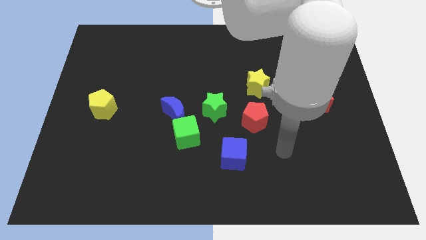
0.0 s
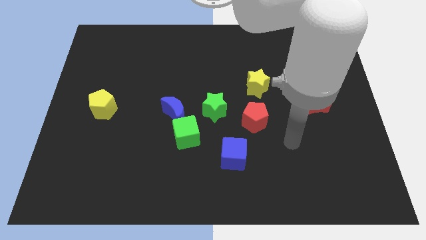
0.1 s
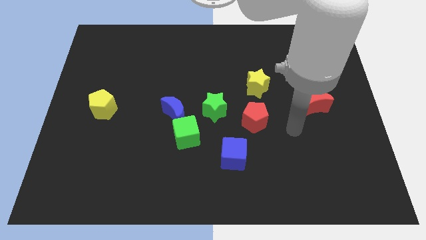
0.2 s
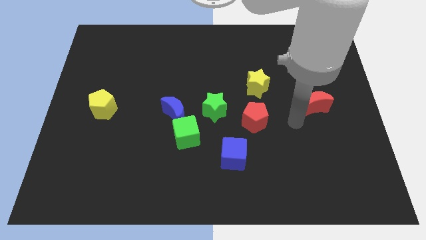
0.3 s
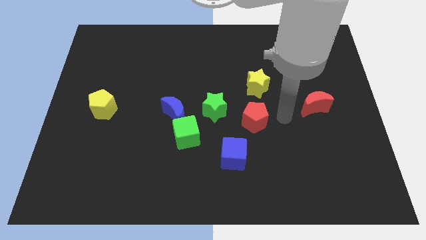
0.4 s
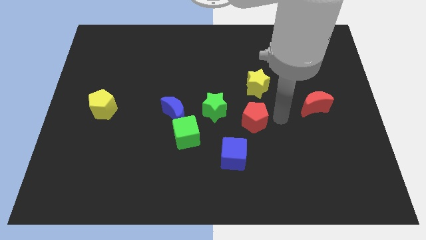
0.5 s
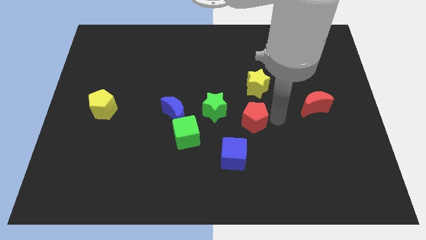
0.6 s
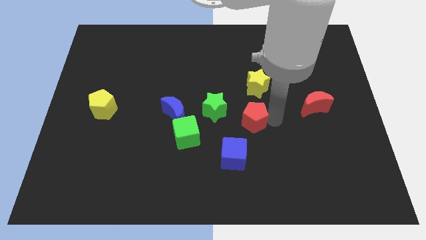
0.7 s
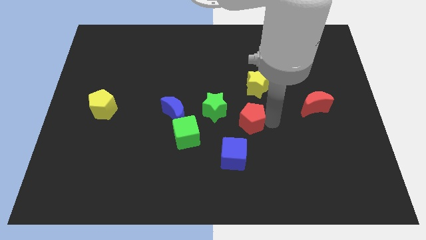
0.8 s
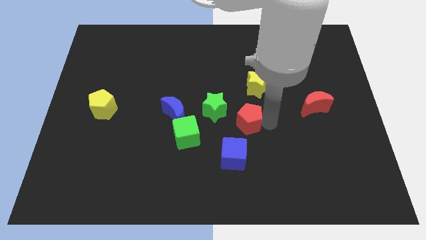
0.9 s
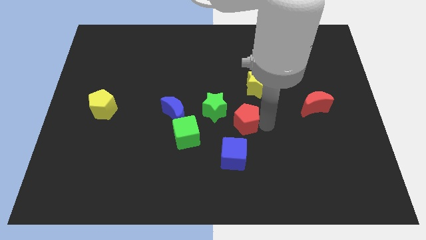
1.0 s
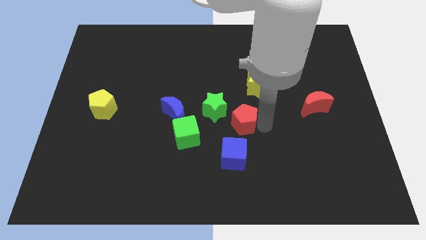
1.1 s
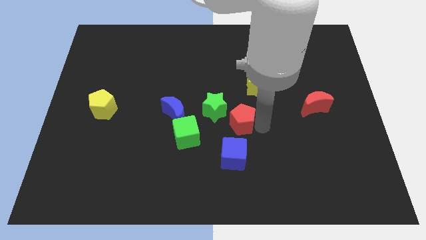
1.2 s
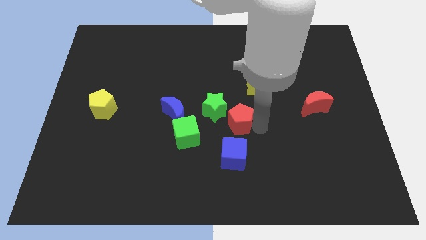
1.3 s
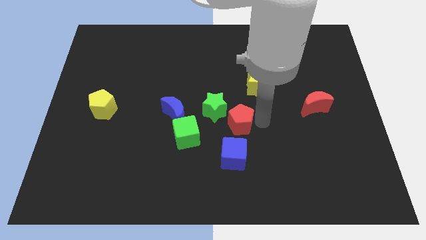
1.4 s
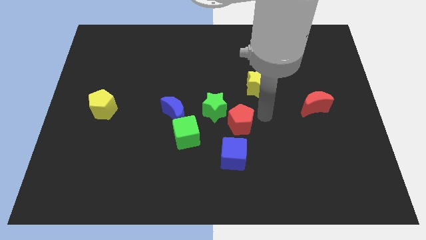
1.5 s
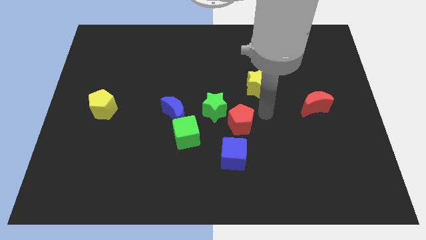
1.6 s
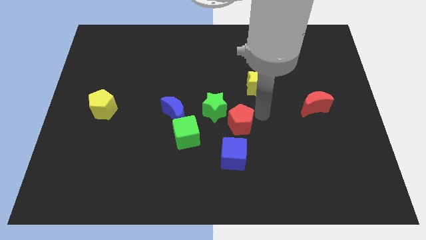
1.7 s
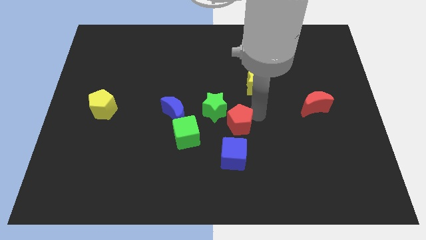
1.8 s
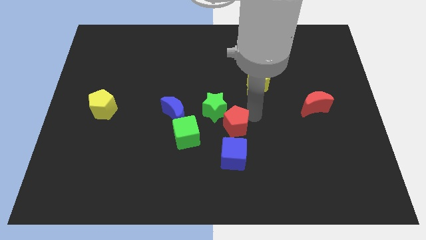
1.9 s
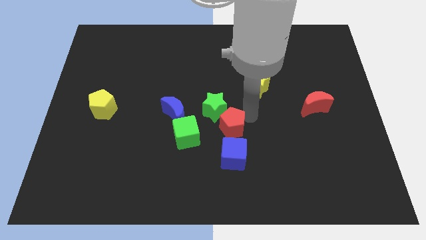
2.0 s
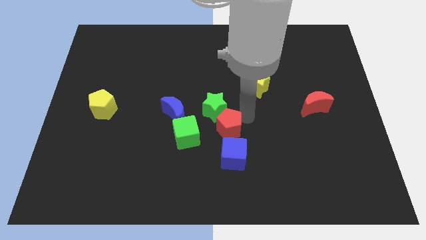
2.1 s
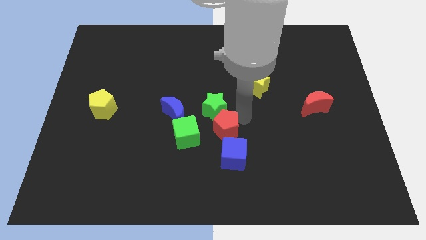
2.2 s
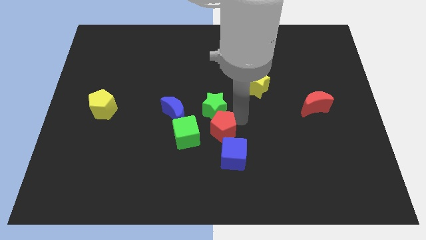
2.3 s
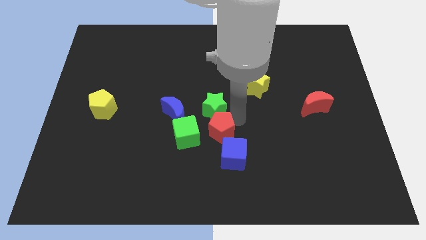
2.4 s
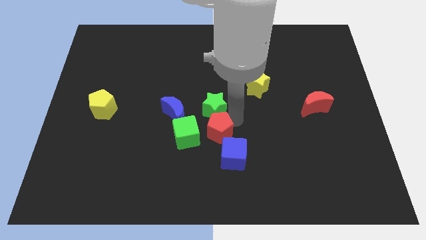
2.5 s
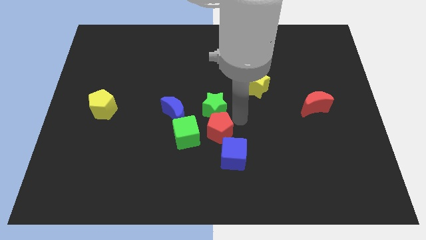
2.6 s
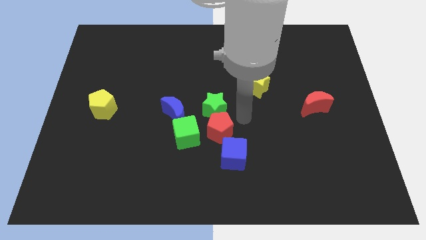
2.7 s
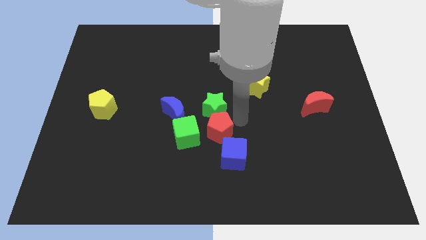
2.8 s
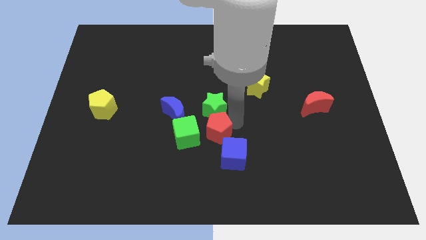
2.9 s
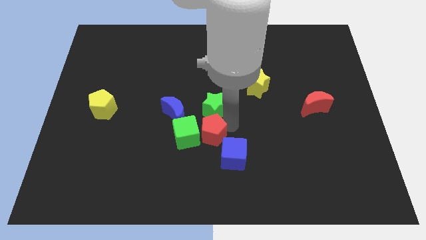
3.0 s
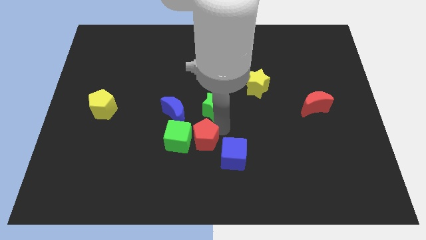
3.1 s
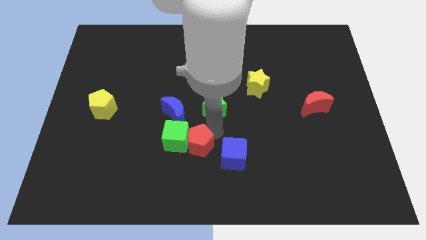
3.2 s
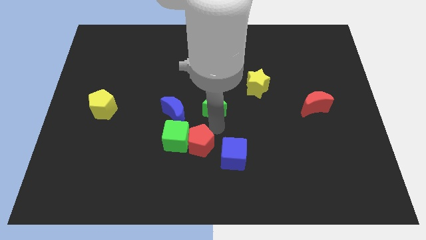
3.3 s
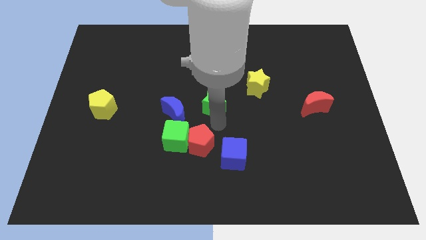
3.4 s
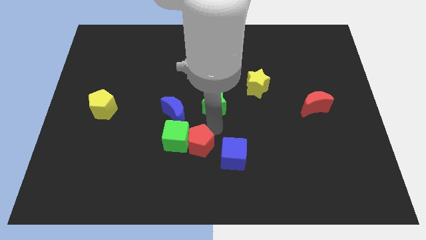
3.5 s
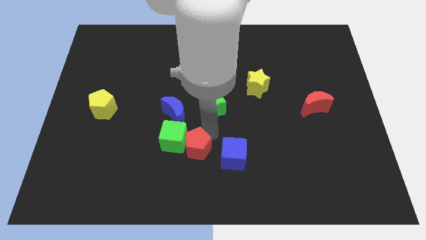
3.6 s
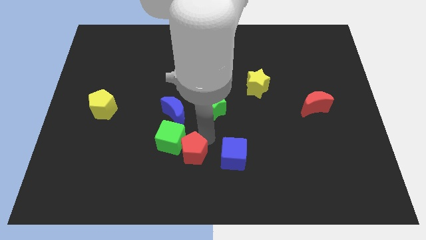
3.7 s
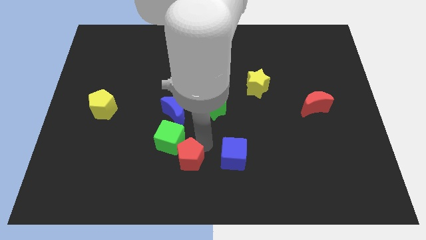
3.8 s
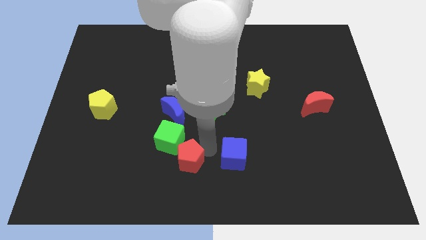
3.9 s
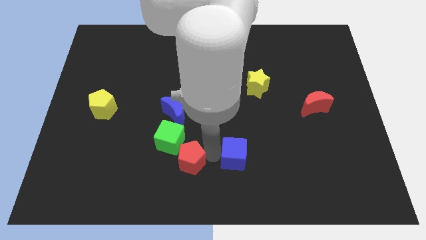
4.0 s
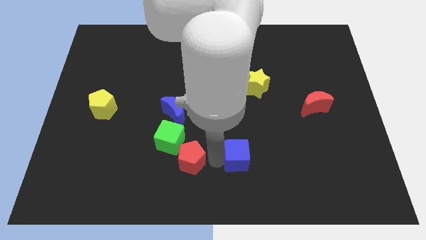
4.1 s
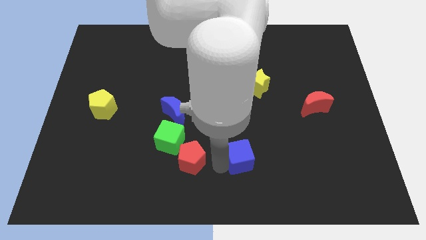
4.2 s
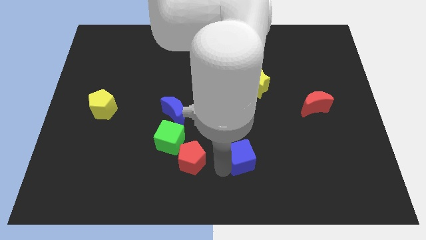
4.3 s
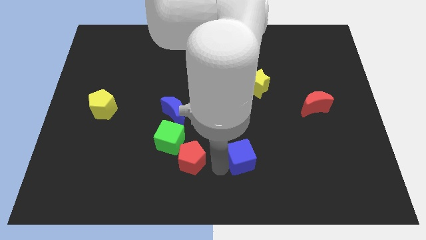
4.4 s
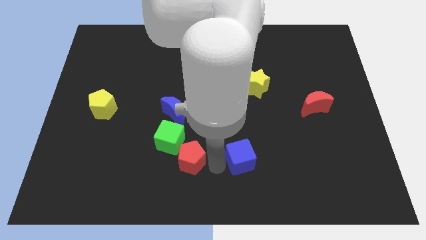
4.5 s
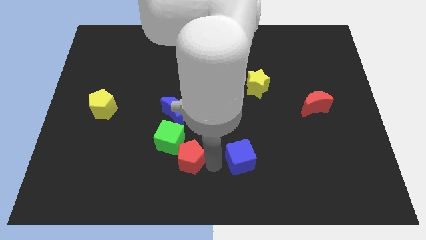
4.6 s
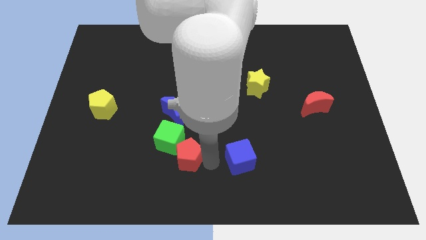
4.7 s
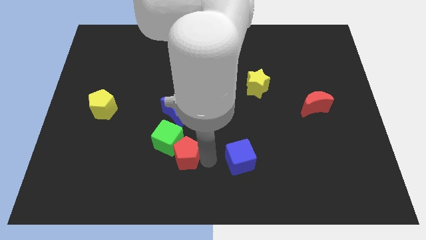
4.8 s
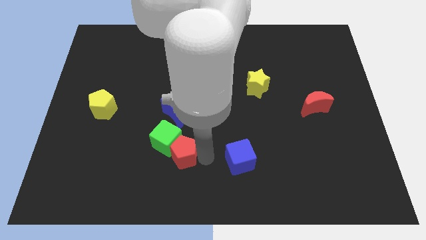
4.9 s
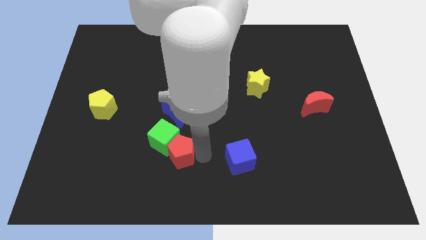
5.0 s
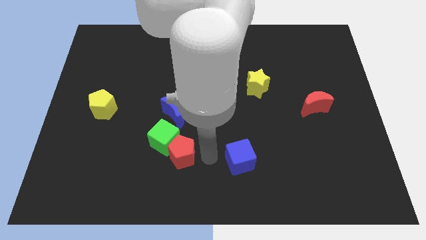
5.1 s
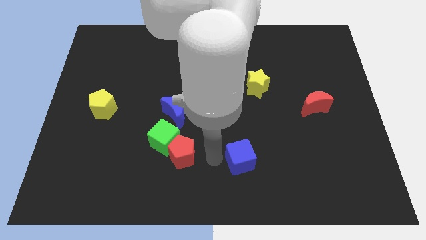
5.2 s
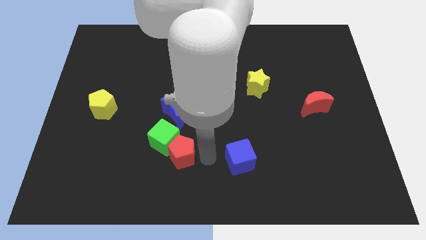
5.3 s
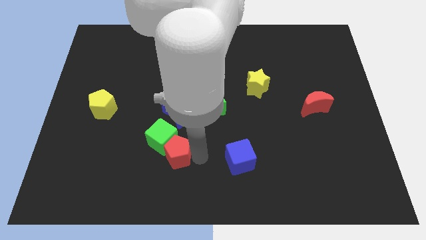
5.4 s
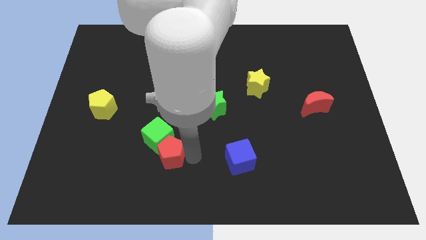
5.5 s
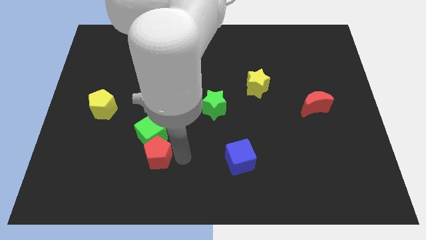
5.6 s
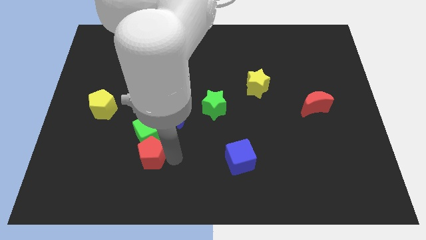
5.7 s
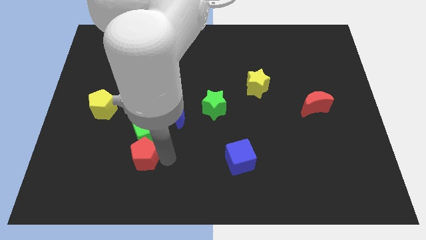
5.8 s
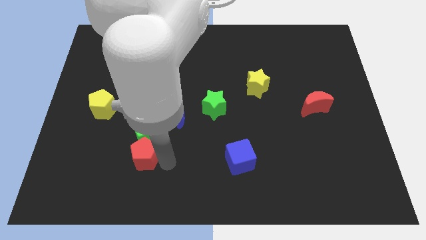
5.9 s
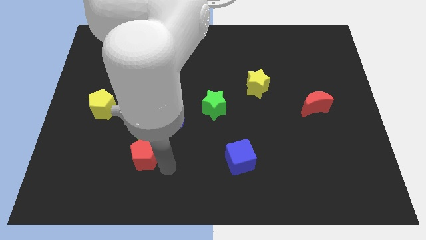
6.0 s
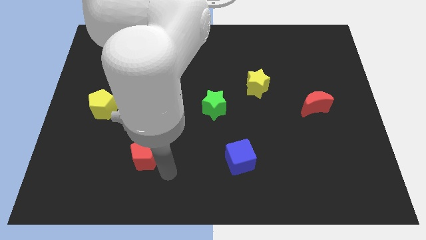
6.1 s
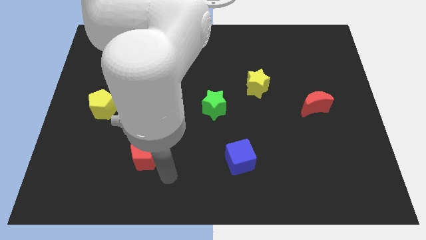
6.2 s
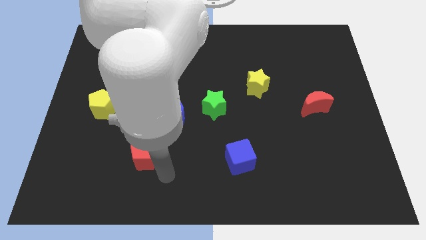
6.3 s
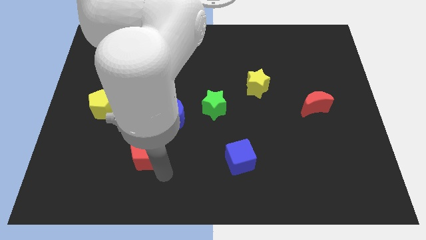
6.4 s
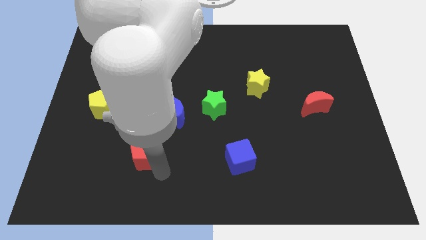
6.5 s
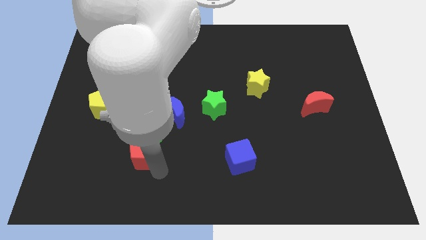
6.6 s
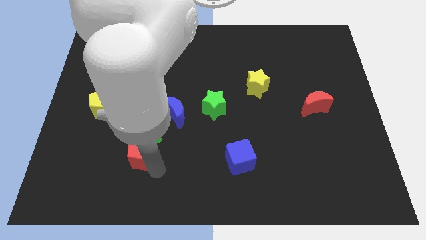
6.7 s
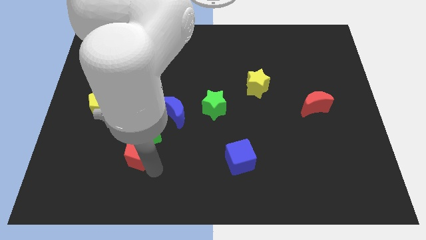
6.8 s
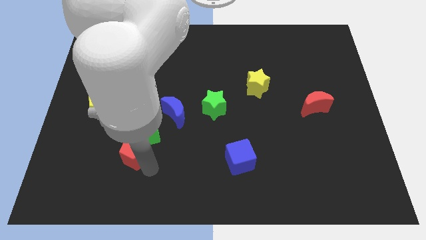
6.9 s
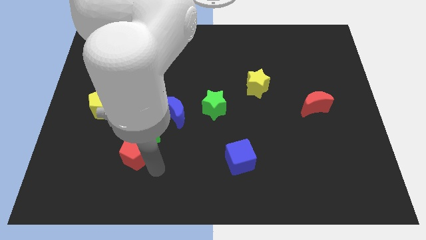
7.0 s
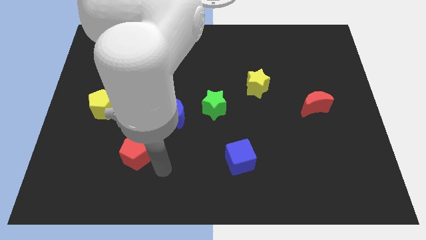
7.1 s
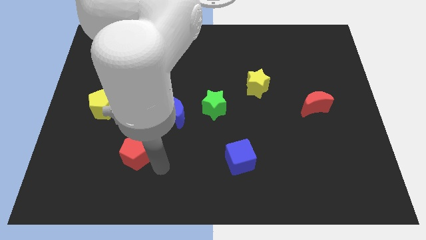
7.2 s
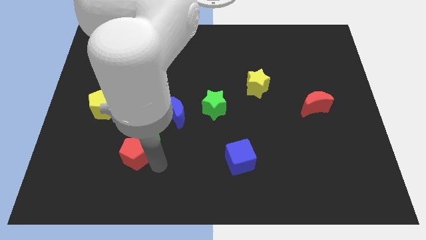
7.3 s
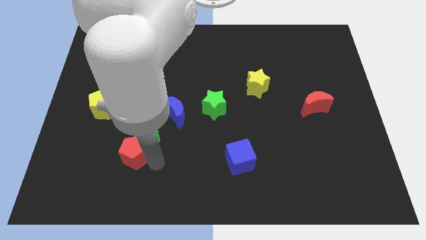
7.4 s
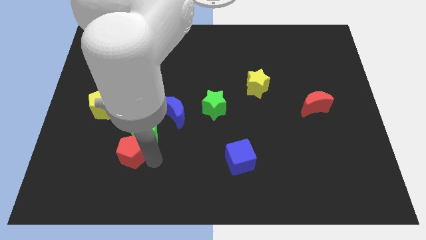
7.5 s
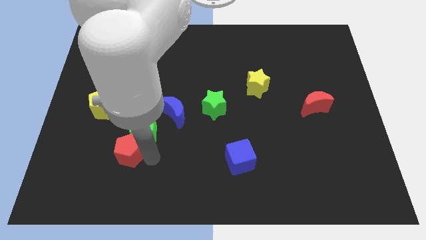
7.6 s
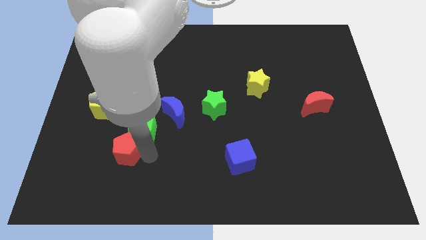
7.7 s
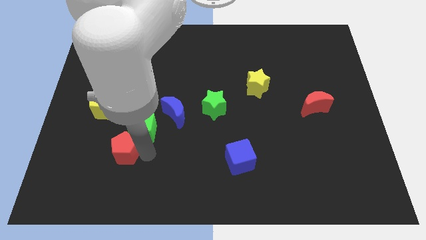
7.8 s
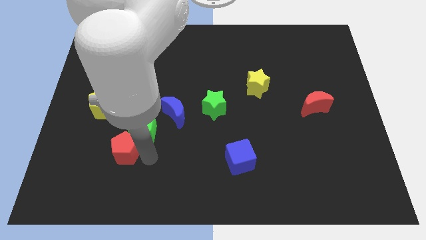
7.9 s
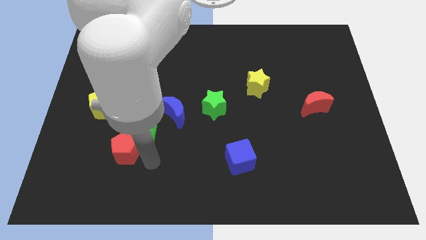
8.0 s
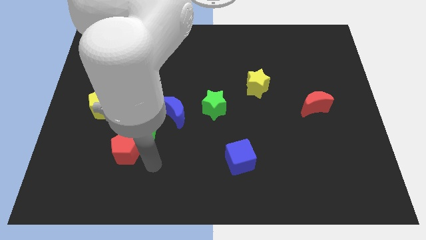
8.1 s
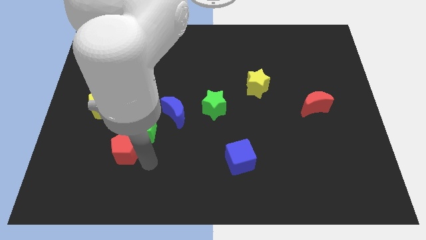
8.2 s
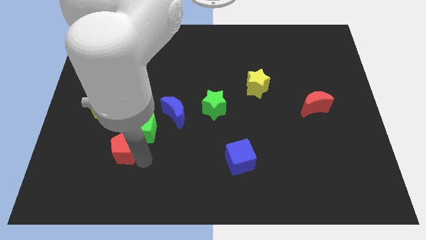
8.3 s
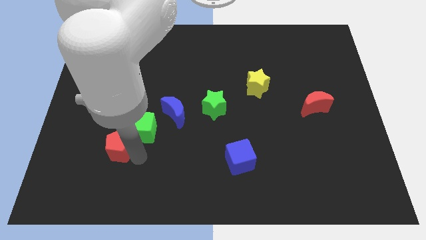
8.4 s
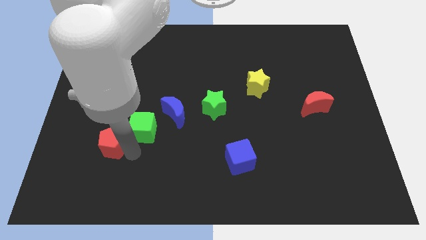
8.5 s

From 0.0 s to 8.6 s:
slide the red pentagon to the bottom side of the yellow pentagon
